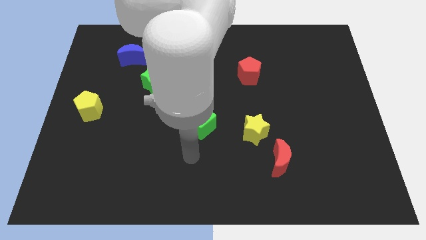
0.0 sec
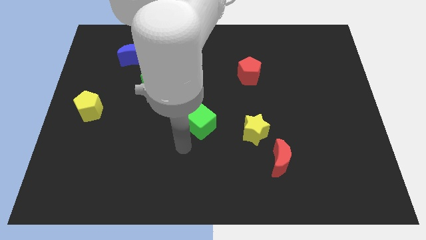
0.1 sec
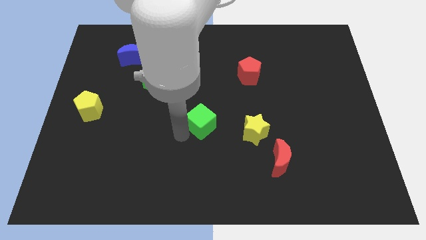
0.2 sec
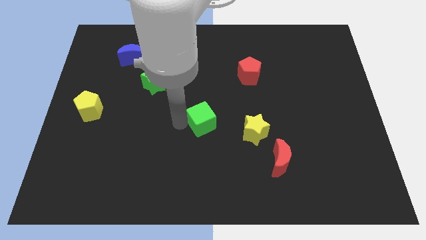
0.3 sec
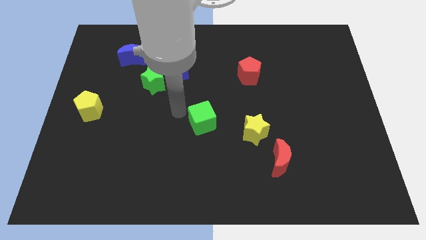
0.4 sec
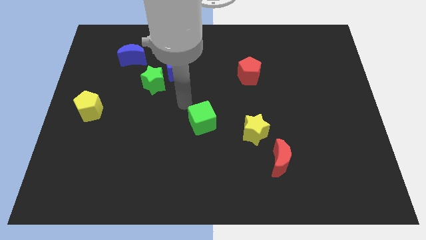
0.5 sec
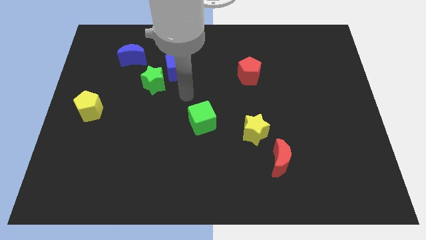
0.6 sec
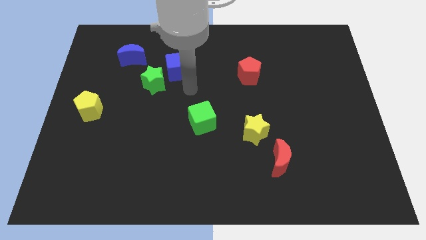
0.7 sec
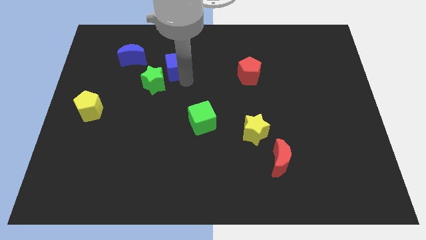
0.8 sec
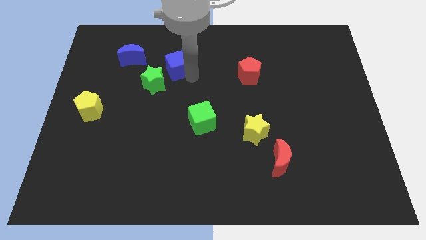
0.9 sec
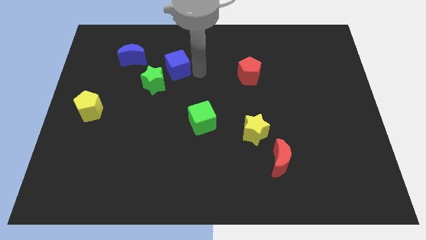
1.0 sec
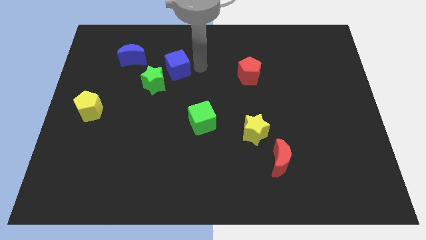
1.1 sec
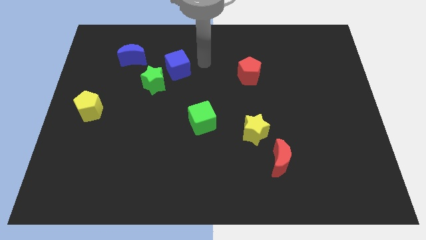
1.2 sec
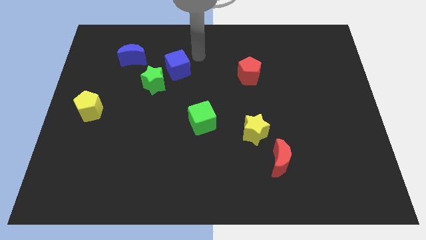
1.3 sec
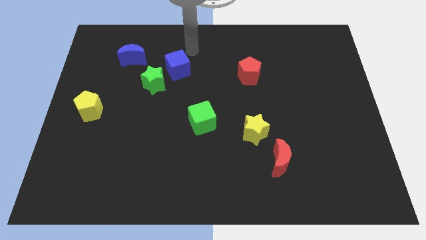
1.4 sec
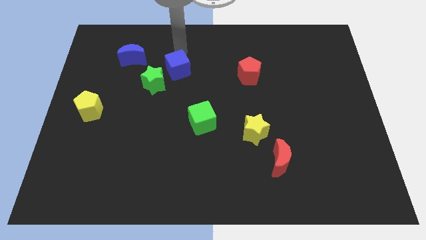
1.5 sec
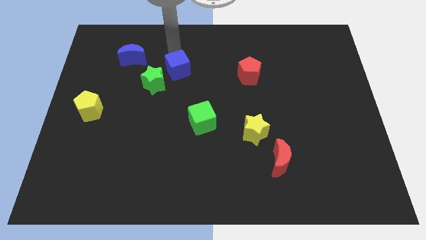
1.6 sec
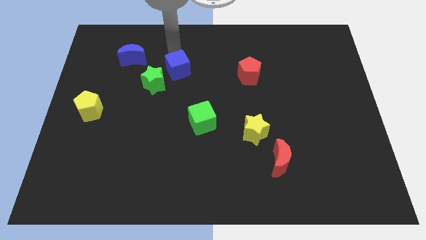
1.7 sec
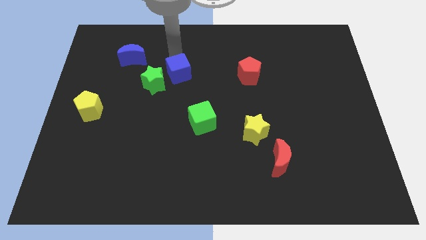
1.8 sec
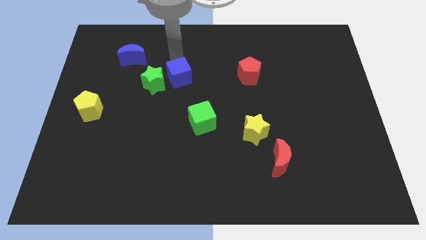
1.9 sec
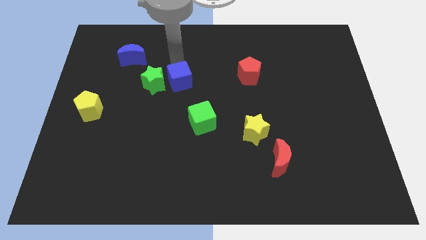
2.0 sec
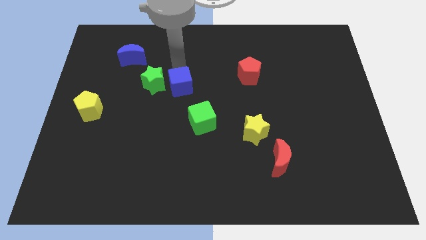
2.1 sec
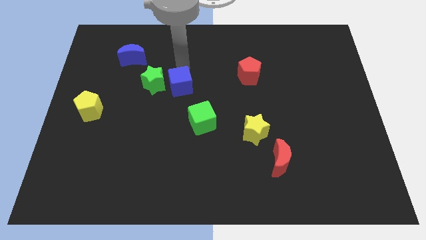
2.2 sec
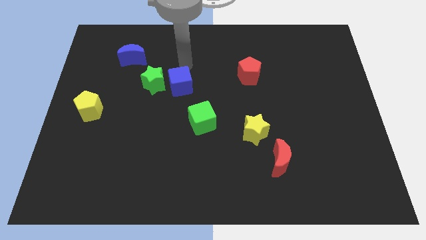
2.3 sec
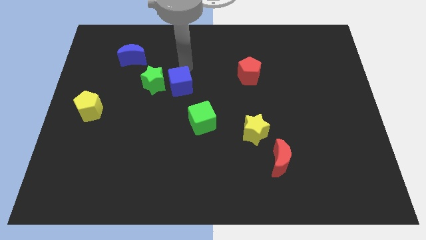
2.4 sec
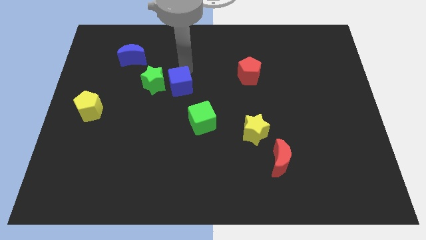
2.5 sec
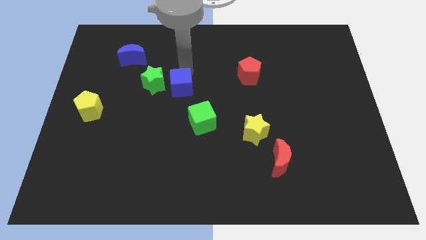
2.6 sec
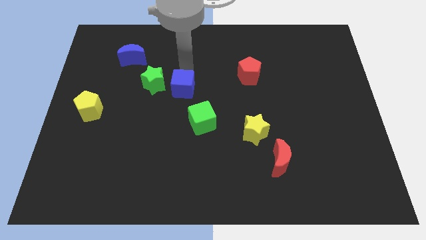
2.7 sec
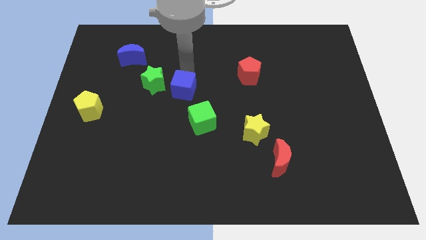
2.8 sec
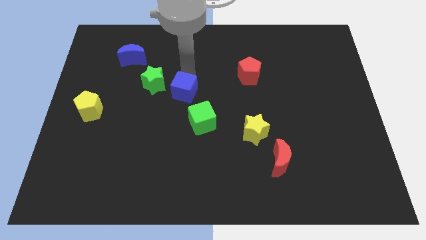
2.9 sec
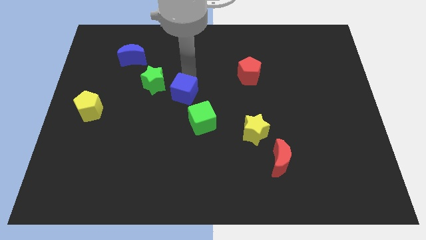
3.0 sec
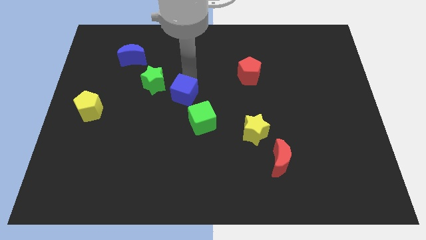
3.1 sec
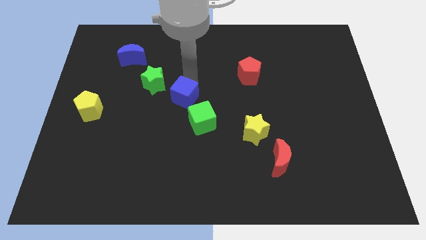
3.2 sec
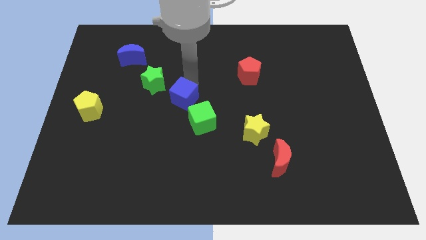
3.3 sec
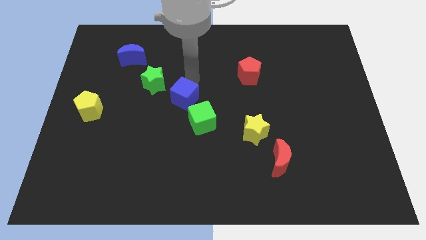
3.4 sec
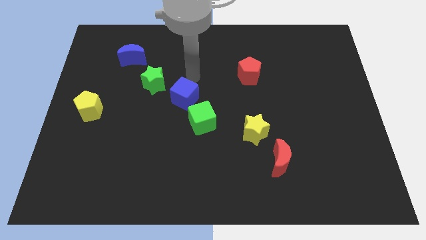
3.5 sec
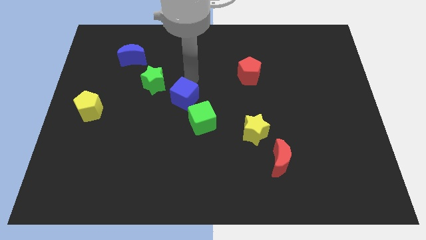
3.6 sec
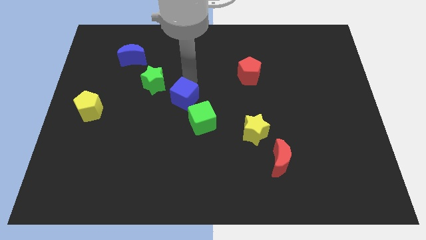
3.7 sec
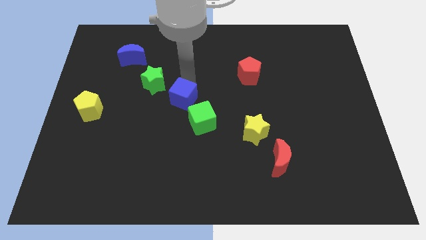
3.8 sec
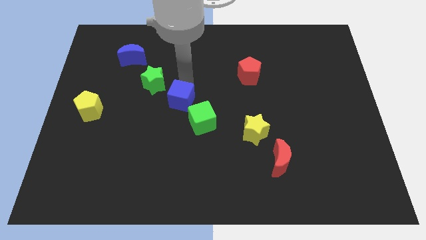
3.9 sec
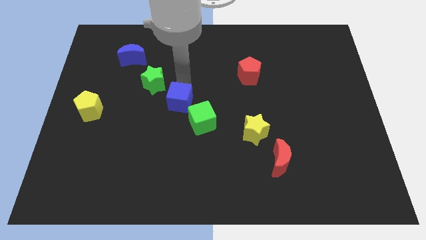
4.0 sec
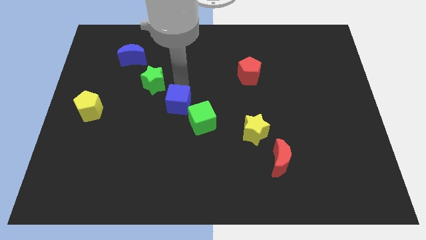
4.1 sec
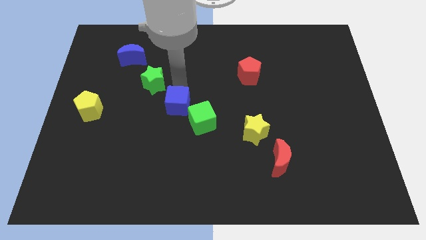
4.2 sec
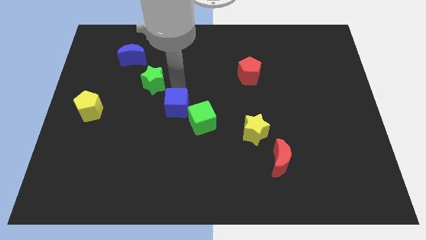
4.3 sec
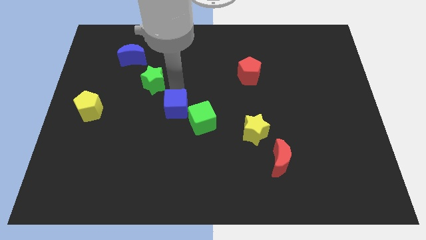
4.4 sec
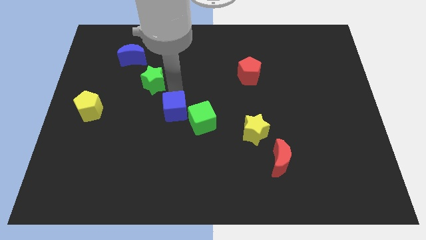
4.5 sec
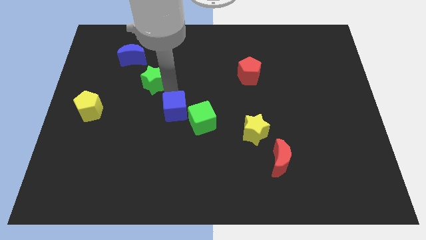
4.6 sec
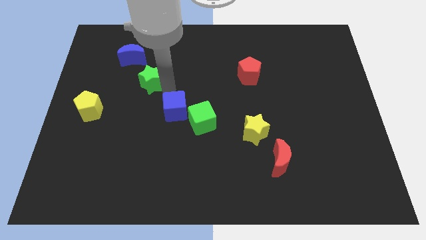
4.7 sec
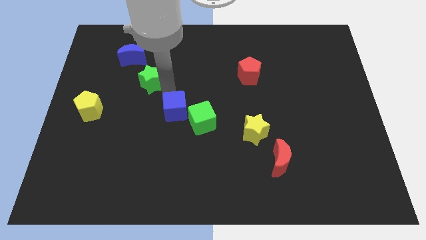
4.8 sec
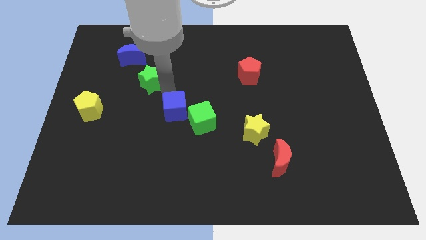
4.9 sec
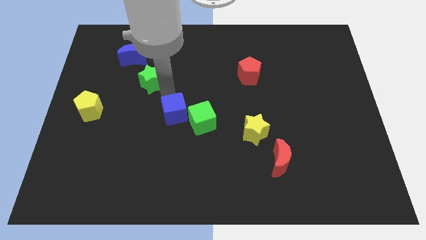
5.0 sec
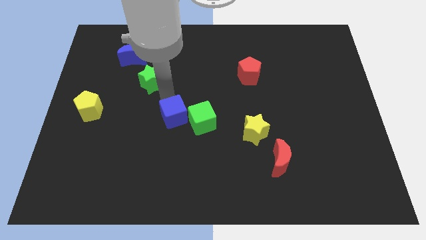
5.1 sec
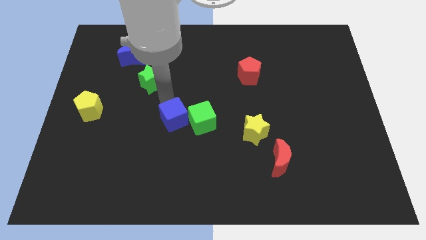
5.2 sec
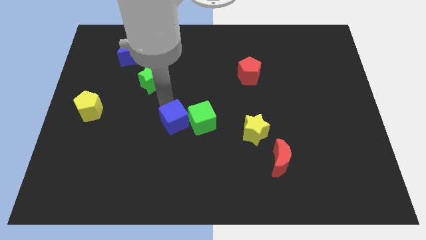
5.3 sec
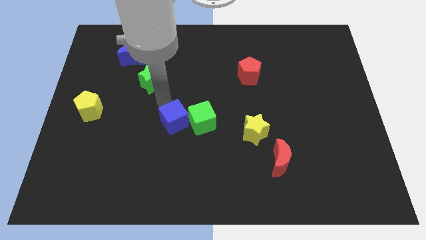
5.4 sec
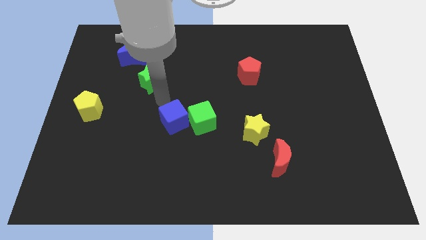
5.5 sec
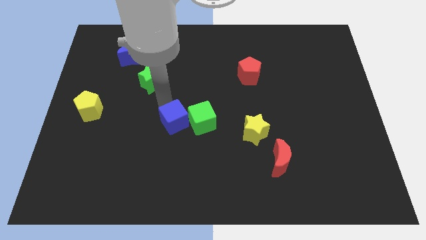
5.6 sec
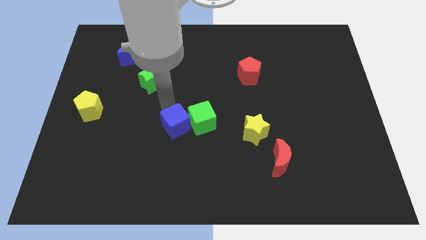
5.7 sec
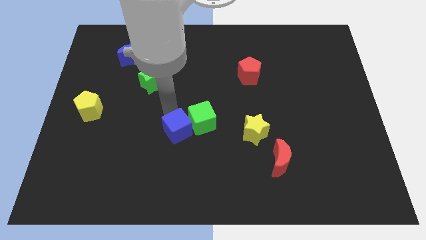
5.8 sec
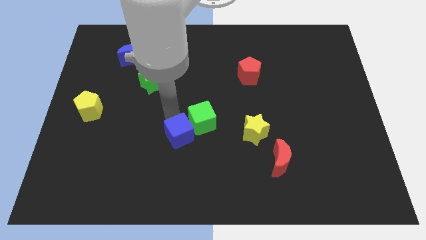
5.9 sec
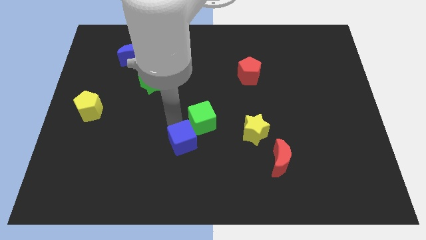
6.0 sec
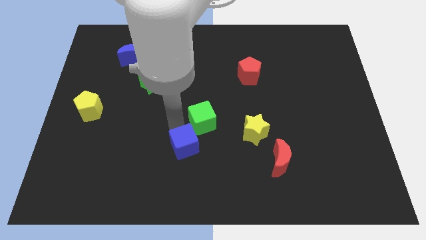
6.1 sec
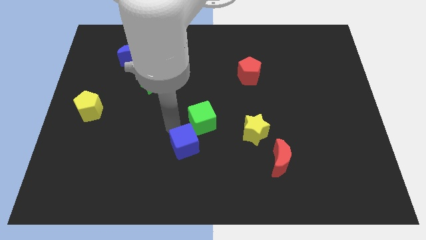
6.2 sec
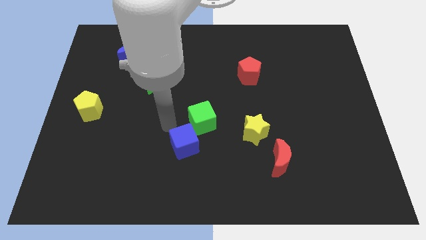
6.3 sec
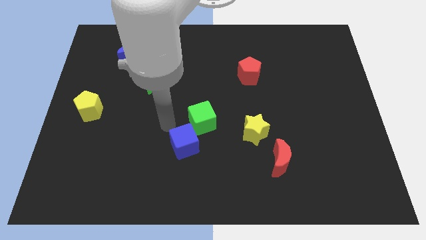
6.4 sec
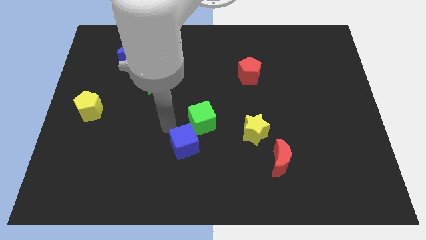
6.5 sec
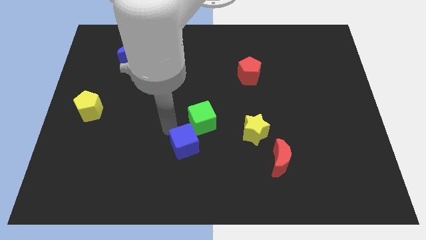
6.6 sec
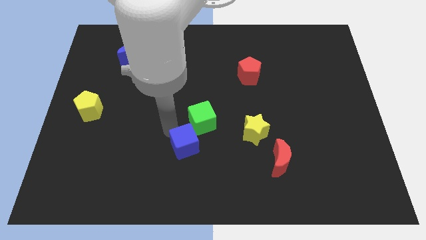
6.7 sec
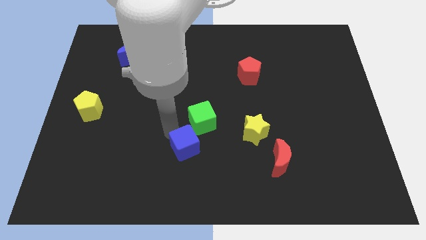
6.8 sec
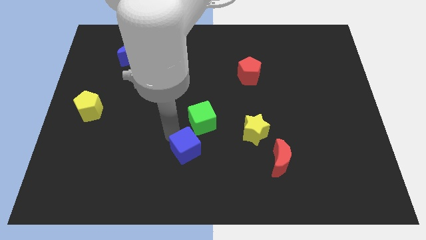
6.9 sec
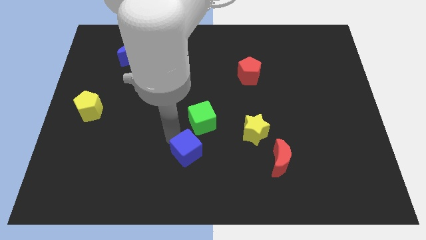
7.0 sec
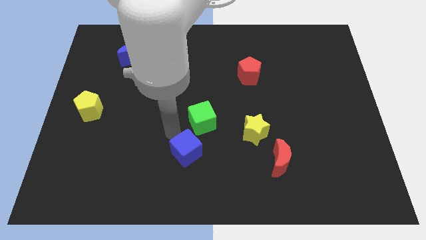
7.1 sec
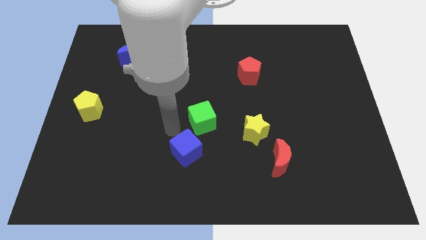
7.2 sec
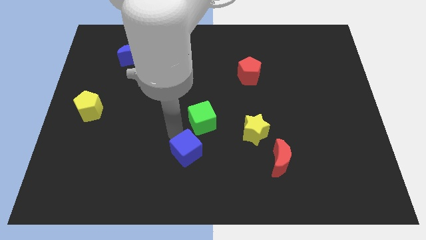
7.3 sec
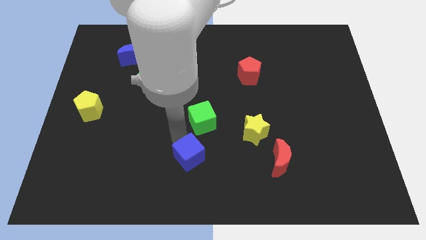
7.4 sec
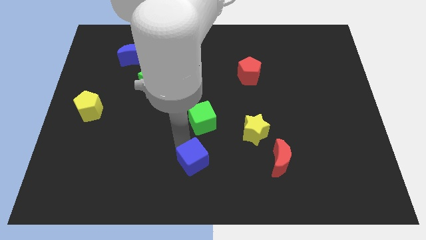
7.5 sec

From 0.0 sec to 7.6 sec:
move the blue cube to the bottom
